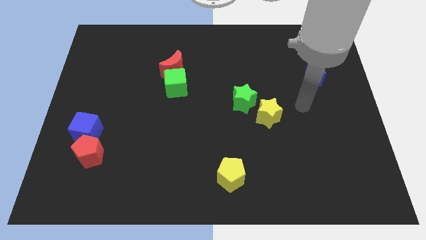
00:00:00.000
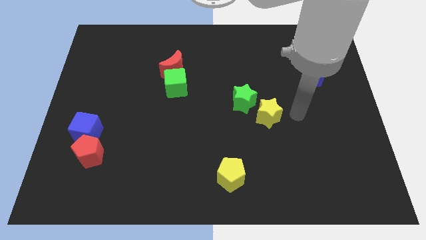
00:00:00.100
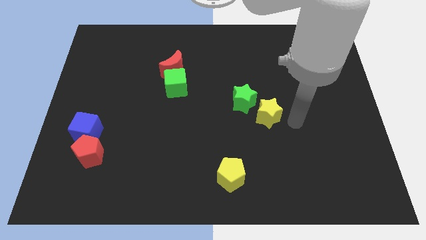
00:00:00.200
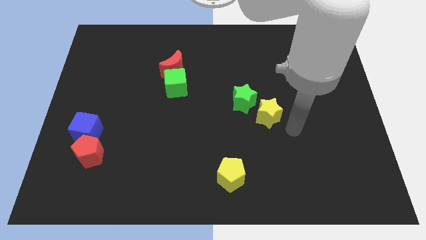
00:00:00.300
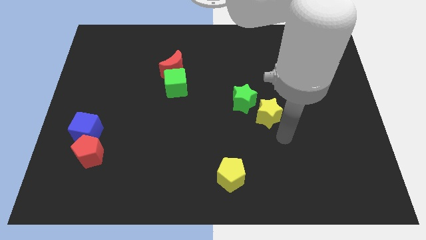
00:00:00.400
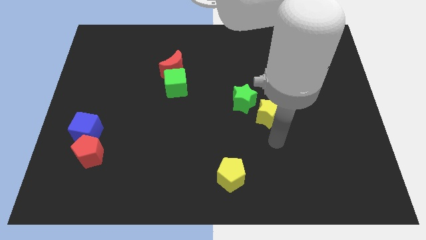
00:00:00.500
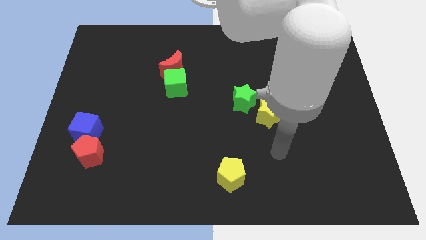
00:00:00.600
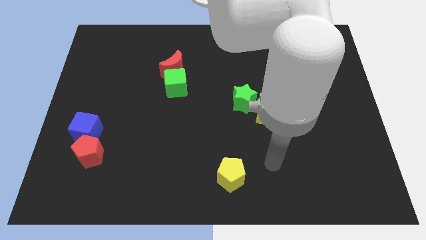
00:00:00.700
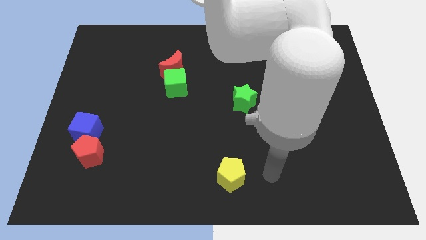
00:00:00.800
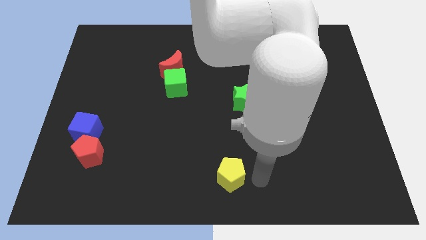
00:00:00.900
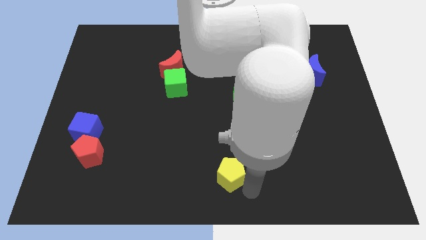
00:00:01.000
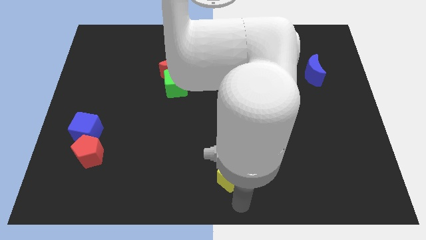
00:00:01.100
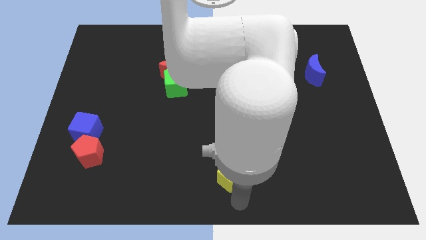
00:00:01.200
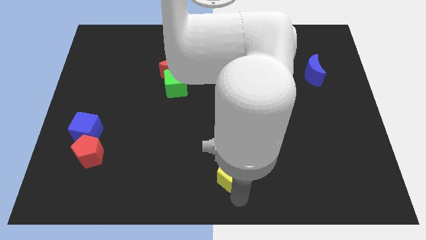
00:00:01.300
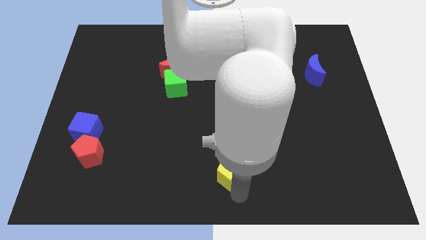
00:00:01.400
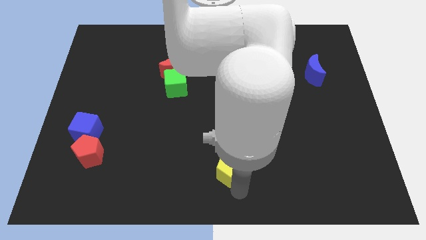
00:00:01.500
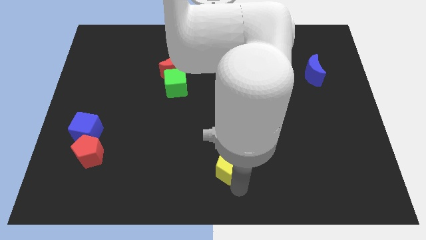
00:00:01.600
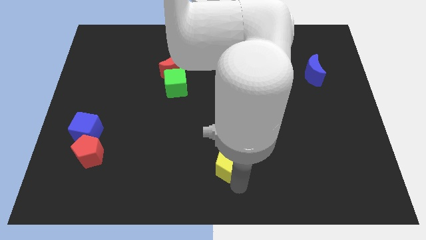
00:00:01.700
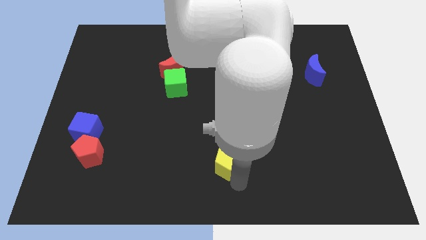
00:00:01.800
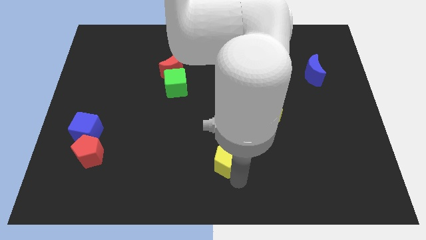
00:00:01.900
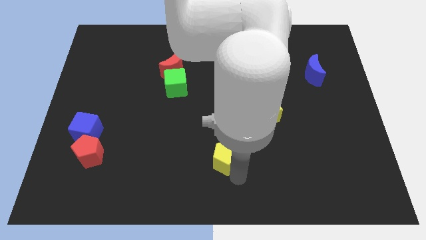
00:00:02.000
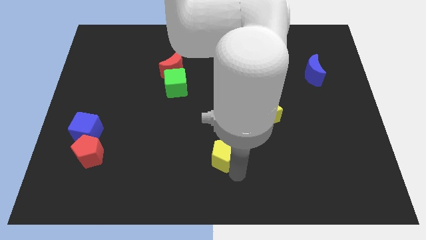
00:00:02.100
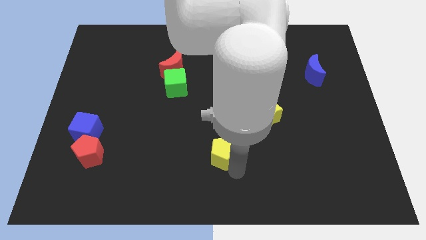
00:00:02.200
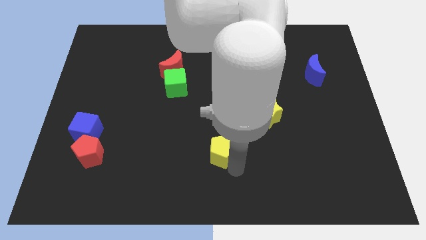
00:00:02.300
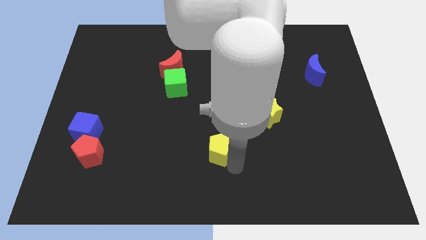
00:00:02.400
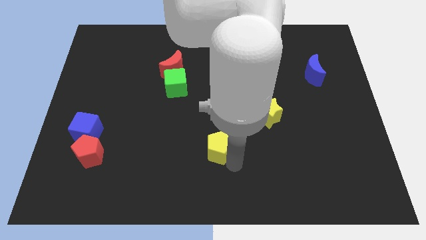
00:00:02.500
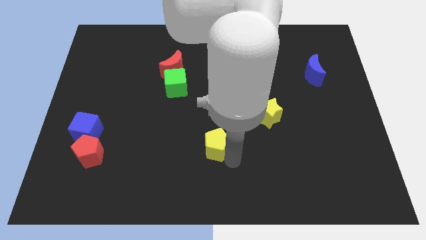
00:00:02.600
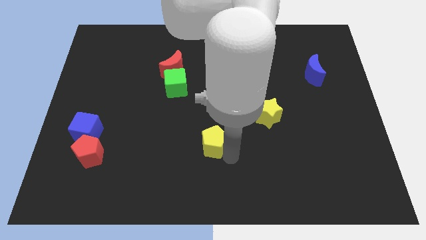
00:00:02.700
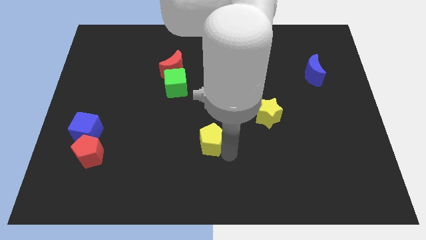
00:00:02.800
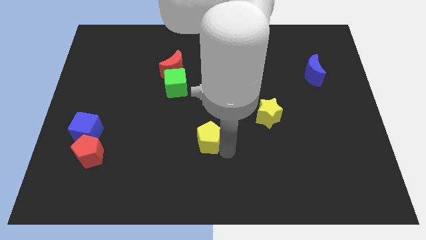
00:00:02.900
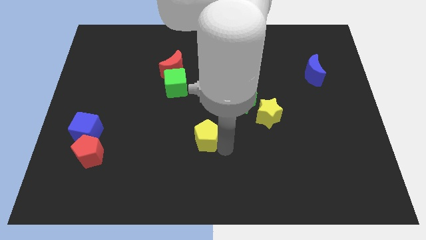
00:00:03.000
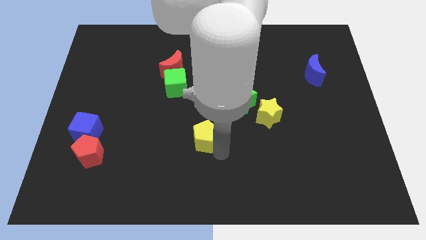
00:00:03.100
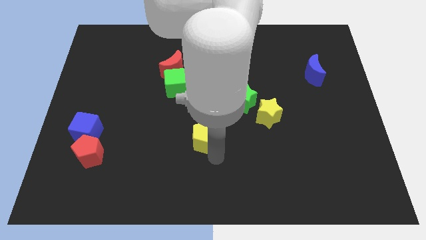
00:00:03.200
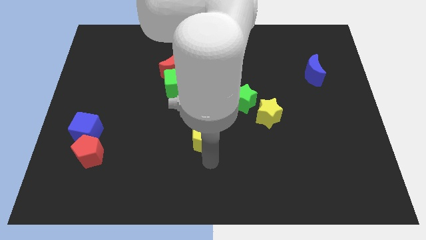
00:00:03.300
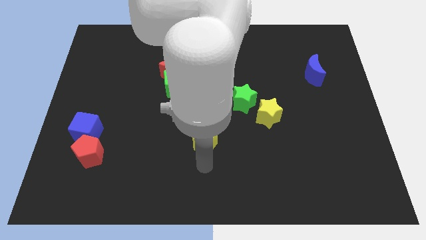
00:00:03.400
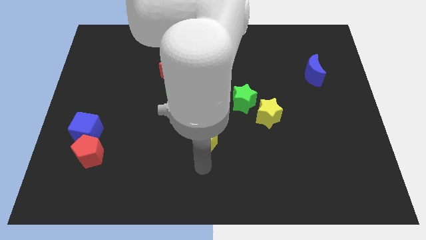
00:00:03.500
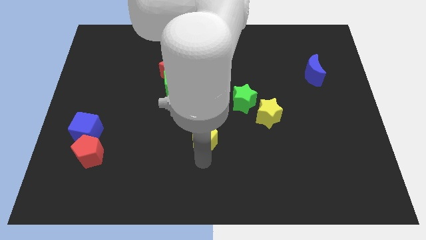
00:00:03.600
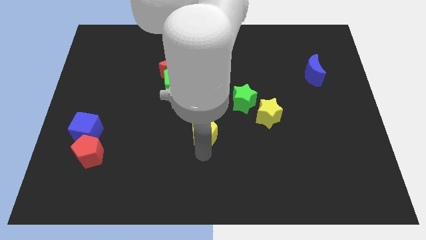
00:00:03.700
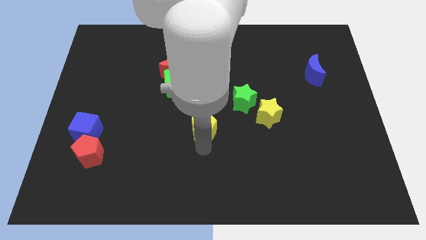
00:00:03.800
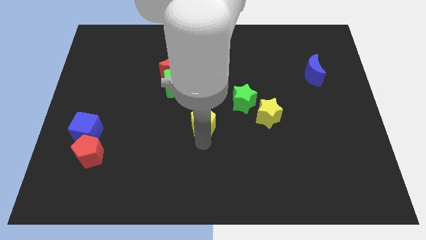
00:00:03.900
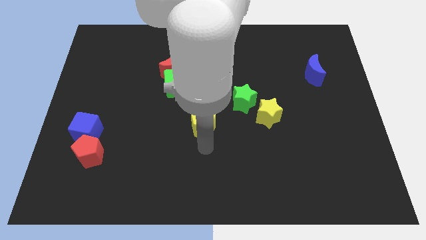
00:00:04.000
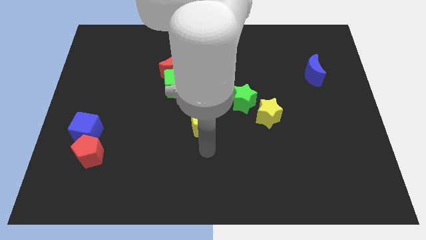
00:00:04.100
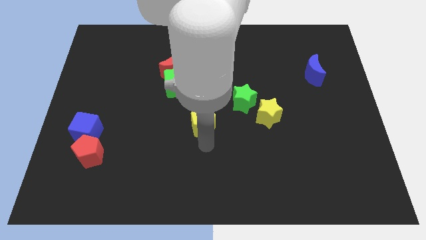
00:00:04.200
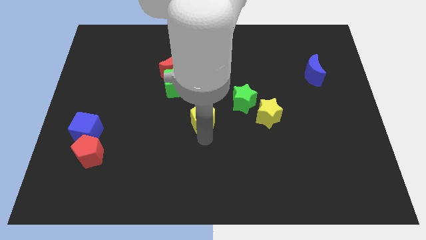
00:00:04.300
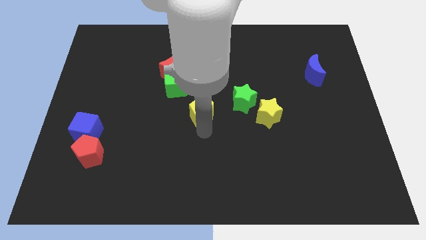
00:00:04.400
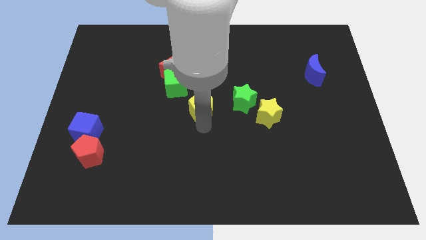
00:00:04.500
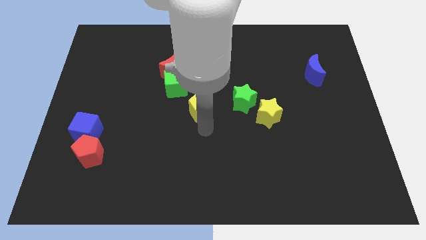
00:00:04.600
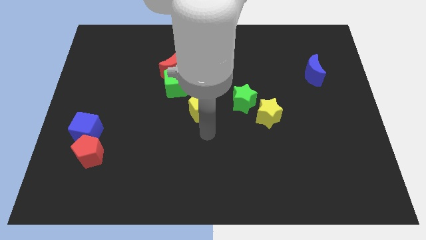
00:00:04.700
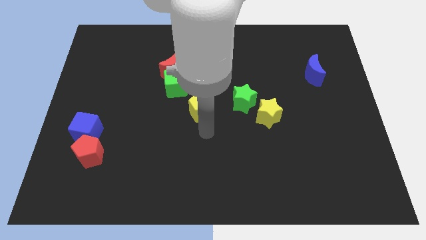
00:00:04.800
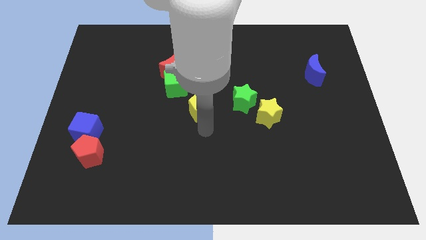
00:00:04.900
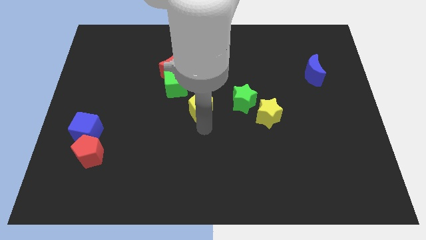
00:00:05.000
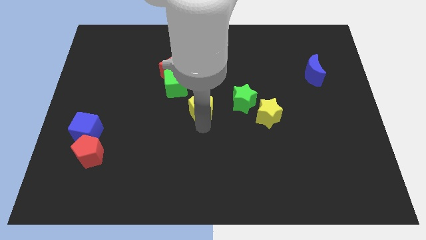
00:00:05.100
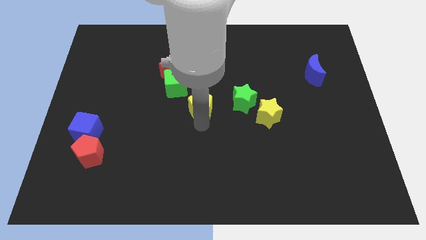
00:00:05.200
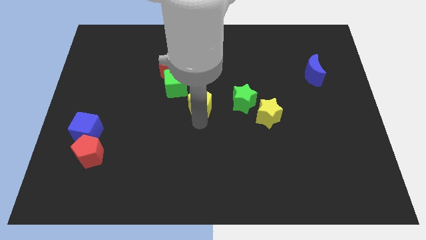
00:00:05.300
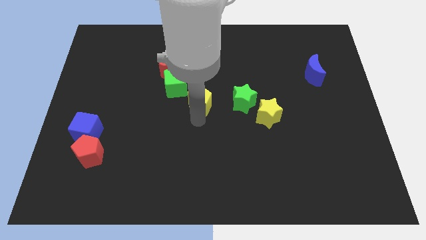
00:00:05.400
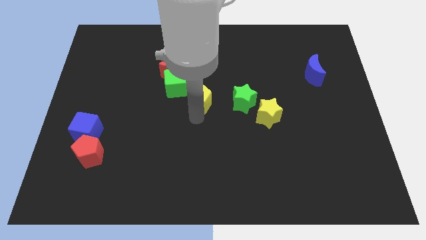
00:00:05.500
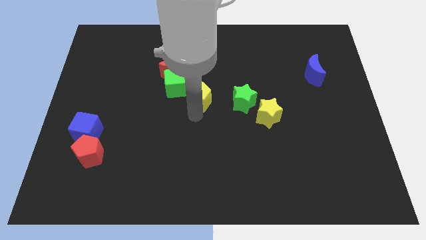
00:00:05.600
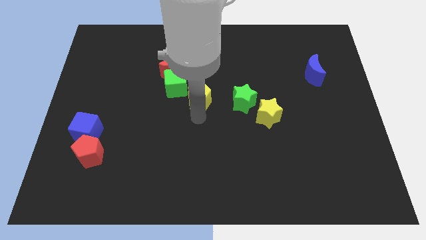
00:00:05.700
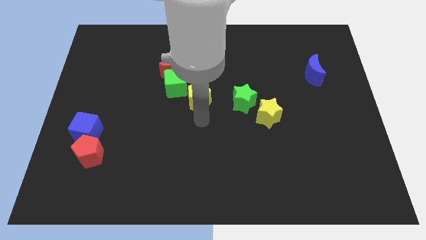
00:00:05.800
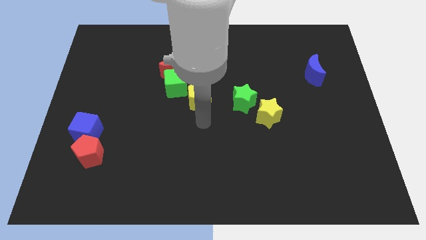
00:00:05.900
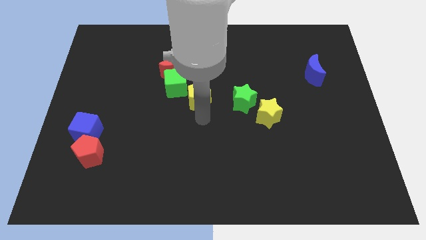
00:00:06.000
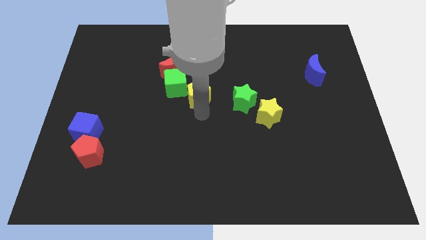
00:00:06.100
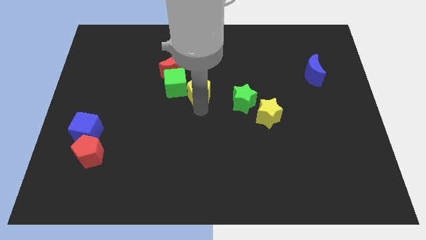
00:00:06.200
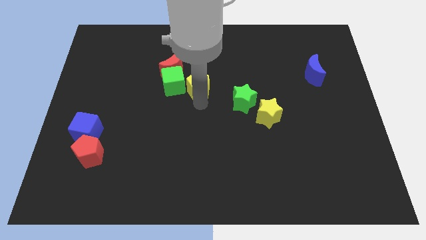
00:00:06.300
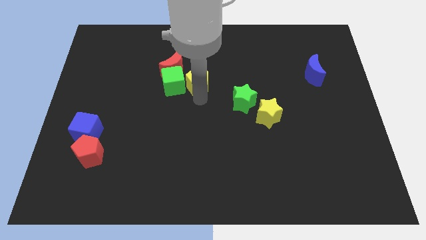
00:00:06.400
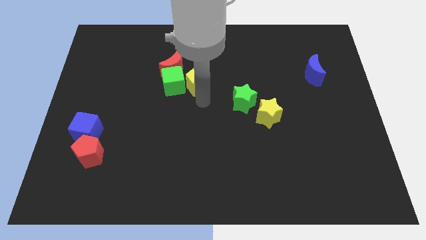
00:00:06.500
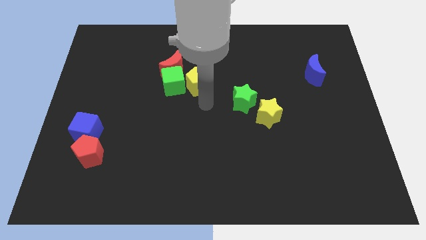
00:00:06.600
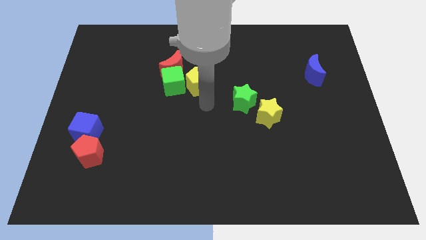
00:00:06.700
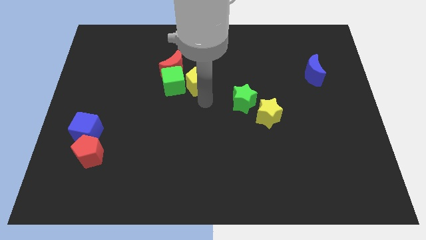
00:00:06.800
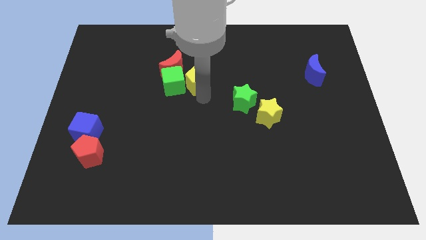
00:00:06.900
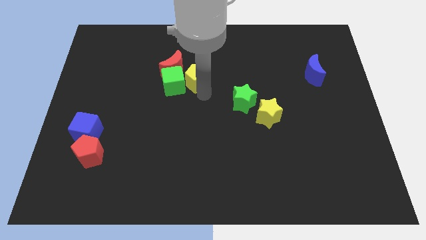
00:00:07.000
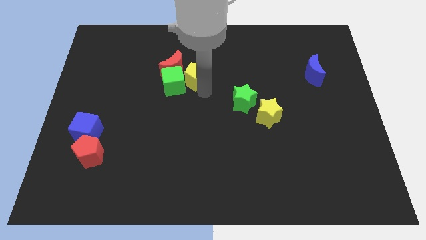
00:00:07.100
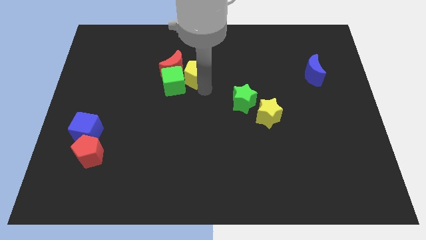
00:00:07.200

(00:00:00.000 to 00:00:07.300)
move the yellow pentagon towards the red moon

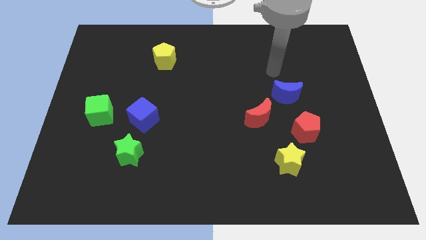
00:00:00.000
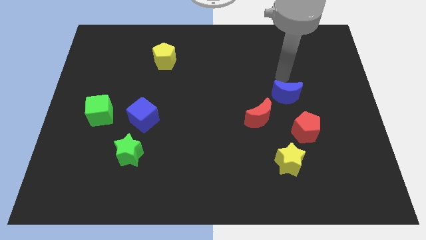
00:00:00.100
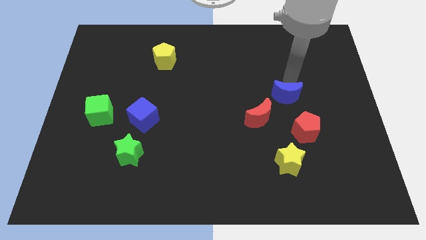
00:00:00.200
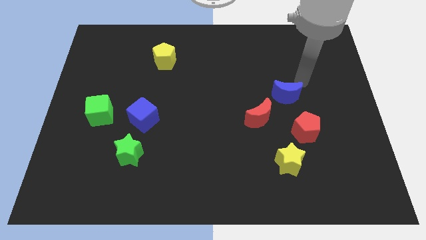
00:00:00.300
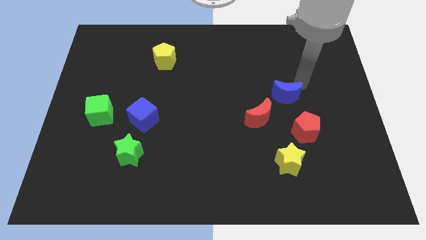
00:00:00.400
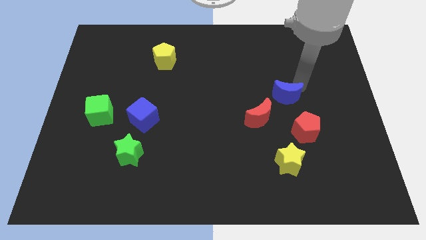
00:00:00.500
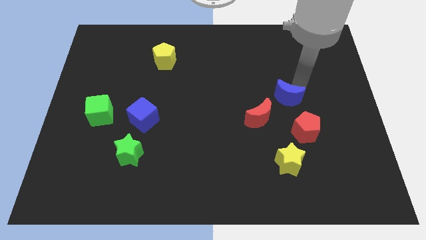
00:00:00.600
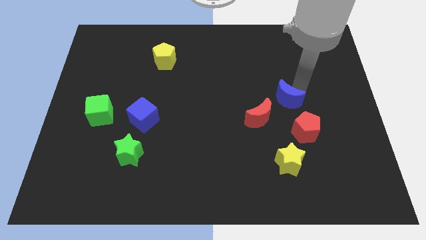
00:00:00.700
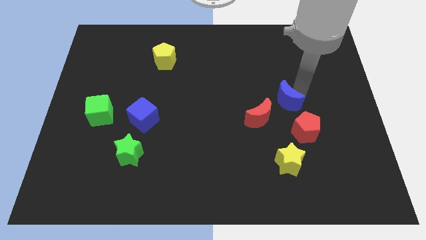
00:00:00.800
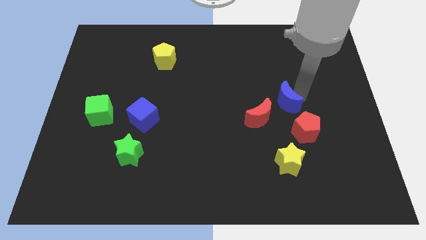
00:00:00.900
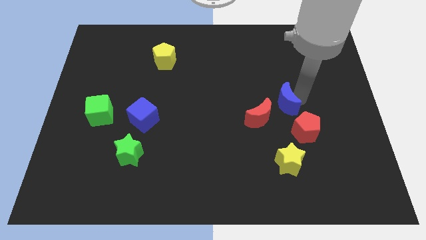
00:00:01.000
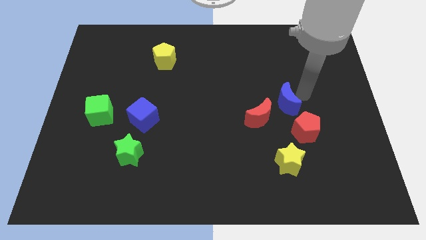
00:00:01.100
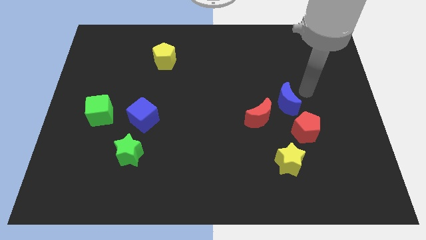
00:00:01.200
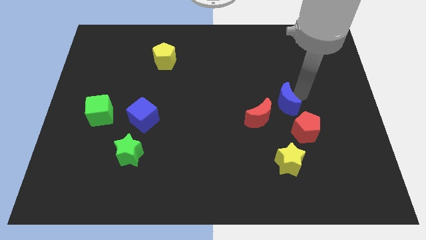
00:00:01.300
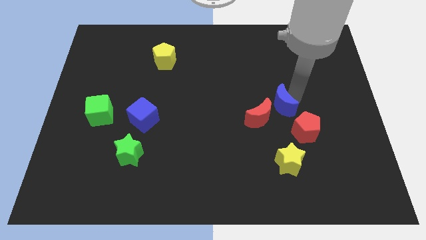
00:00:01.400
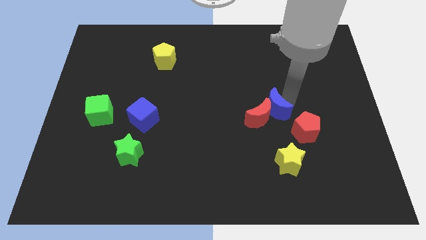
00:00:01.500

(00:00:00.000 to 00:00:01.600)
slide the blue moon to the red moon
